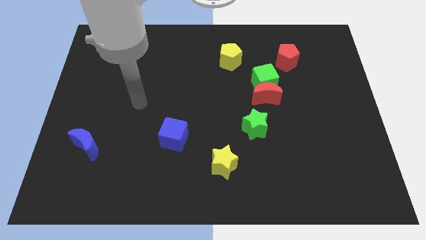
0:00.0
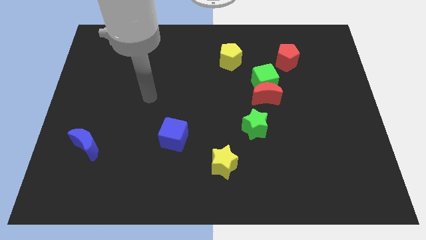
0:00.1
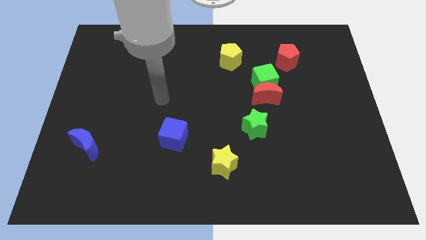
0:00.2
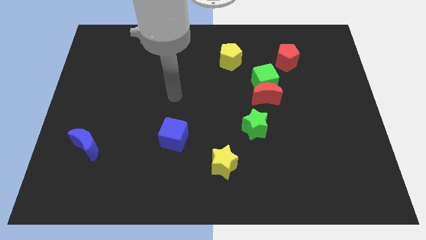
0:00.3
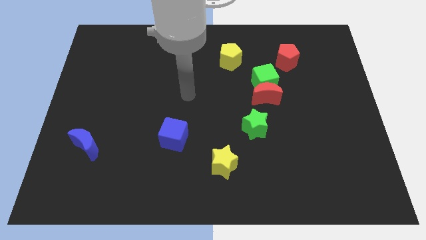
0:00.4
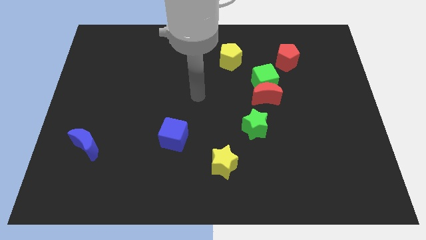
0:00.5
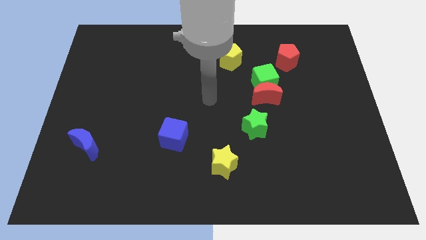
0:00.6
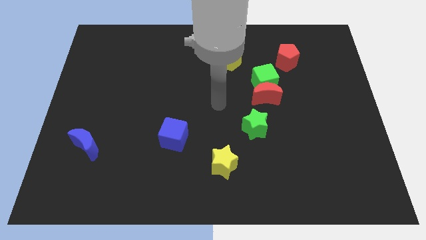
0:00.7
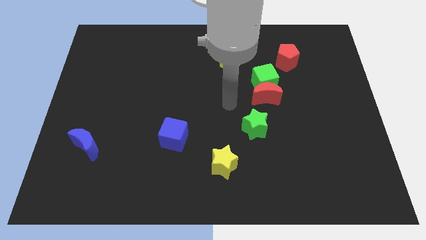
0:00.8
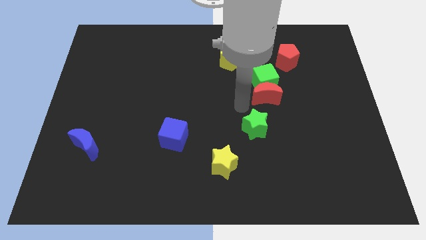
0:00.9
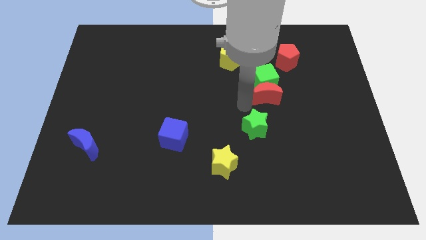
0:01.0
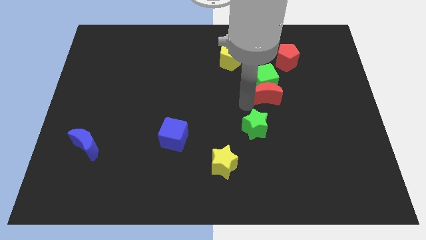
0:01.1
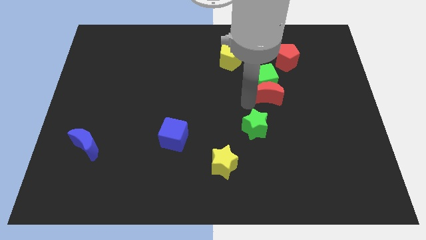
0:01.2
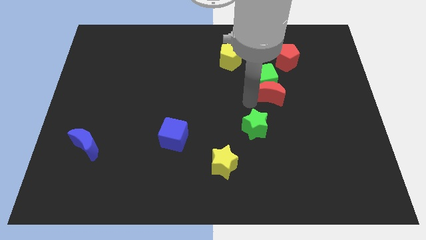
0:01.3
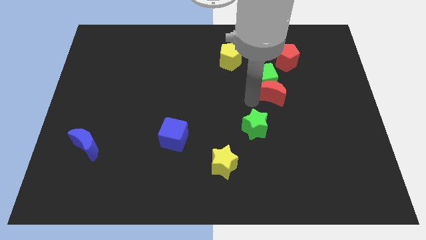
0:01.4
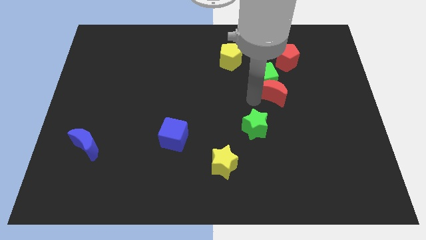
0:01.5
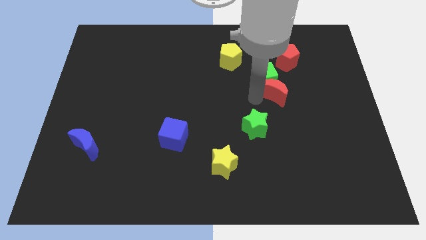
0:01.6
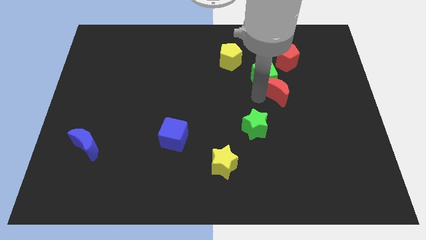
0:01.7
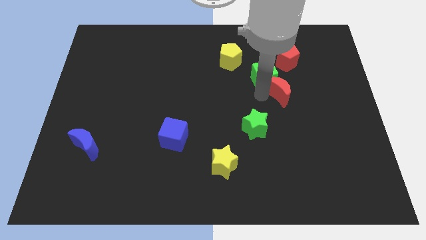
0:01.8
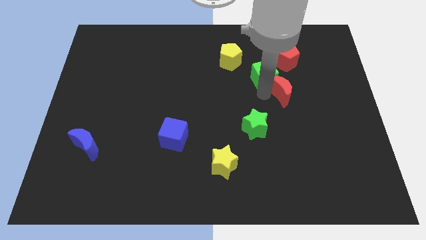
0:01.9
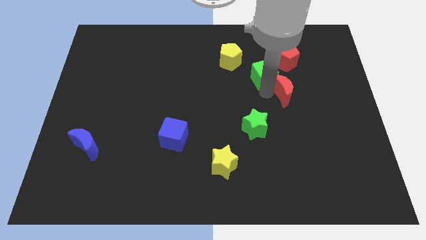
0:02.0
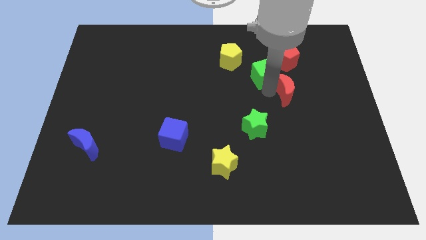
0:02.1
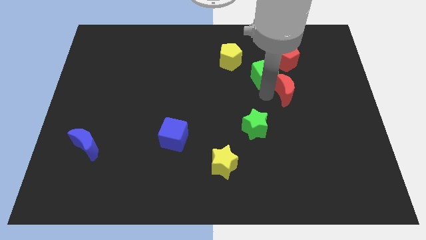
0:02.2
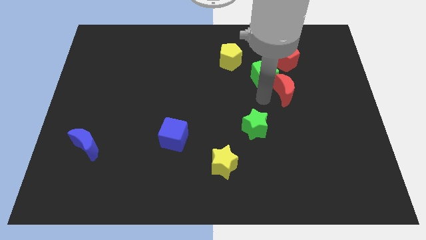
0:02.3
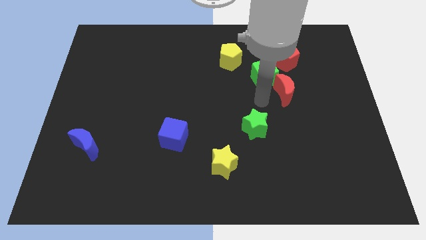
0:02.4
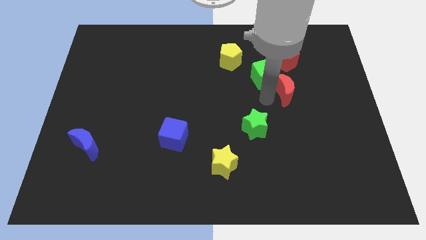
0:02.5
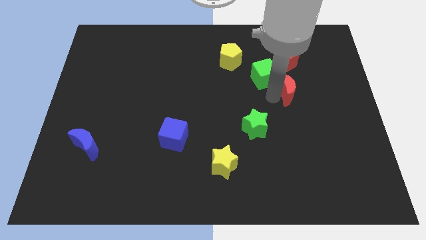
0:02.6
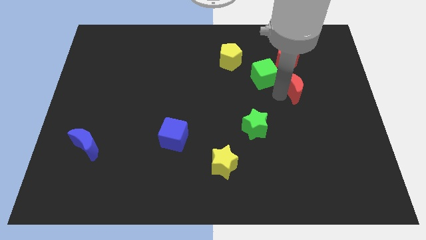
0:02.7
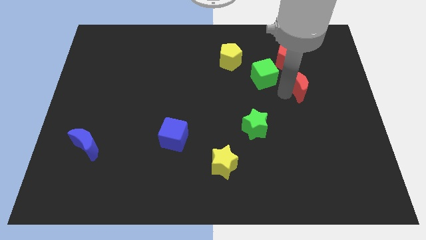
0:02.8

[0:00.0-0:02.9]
separate the red moon from the green cube and green star

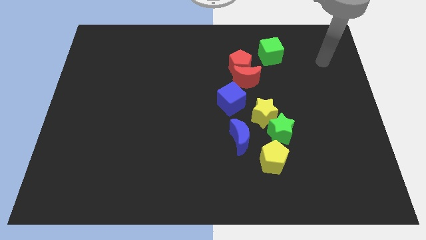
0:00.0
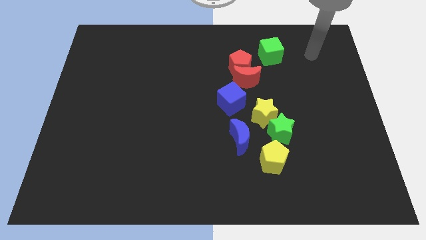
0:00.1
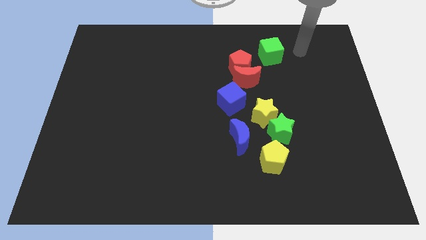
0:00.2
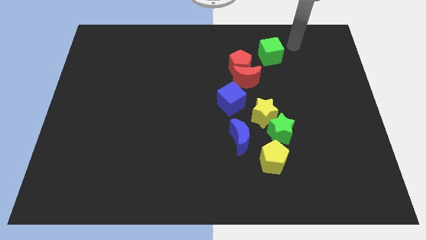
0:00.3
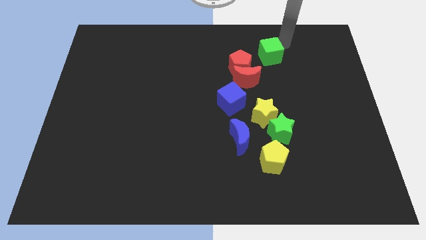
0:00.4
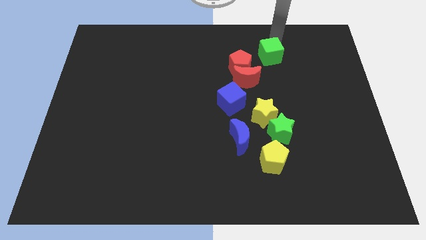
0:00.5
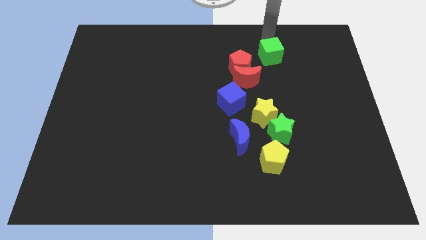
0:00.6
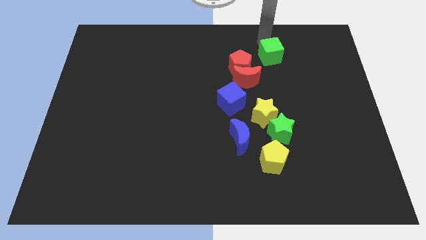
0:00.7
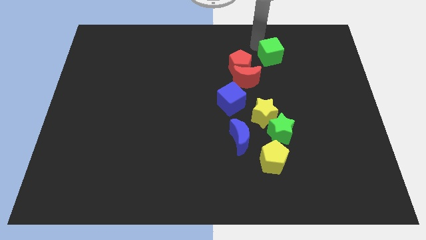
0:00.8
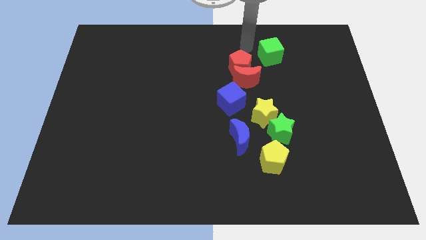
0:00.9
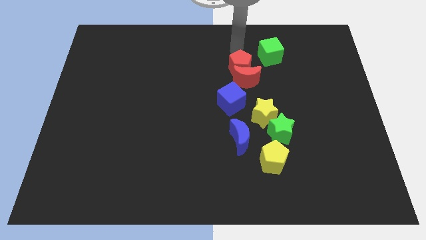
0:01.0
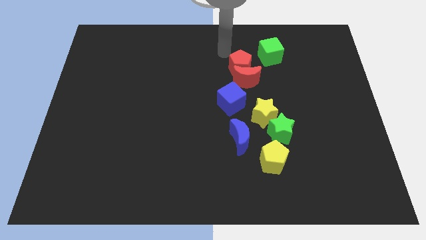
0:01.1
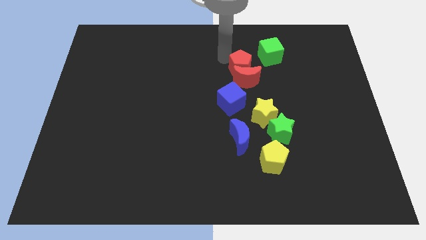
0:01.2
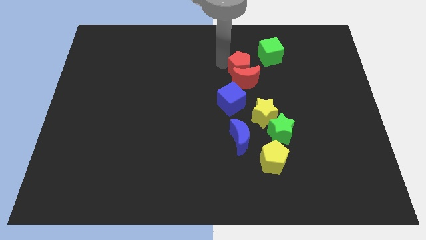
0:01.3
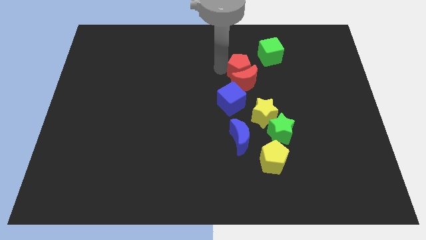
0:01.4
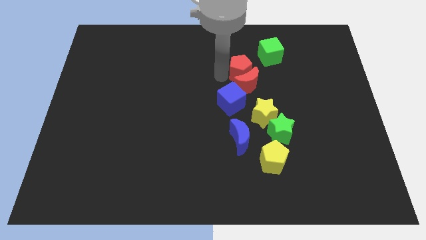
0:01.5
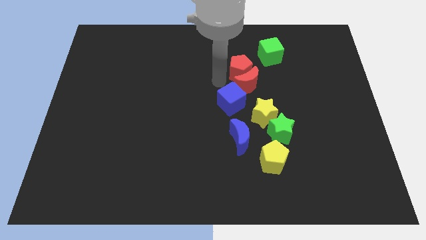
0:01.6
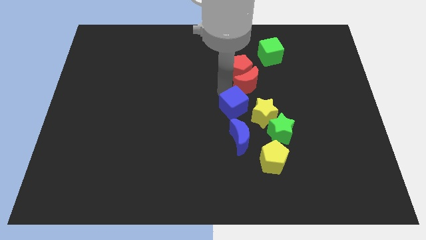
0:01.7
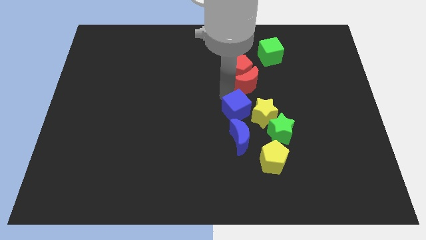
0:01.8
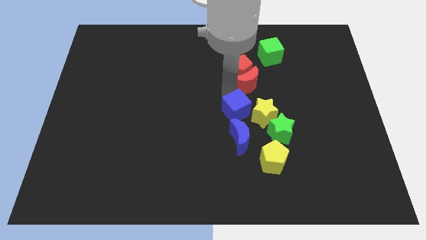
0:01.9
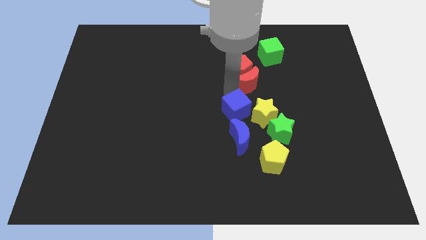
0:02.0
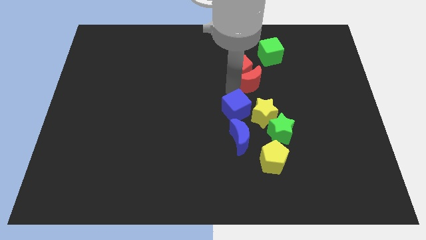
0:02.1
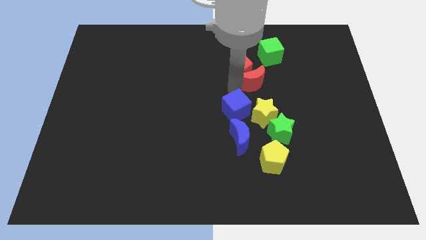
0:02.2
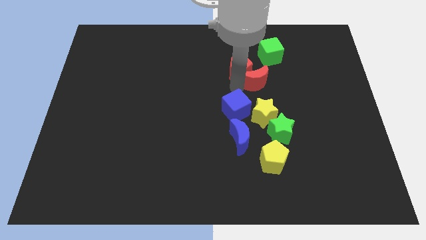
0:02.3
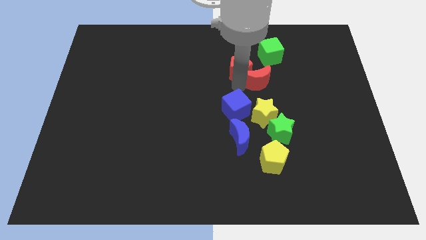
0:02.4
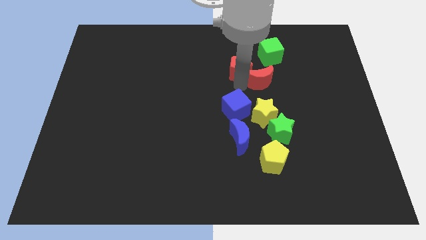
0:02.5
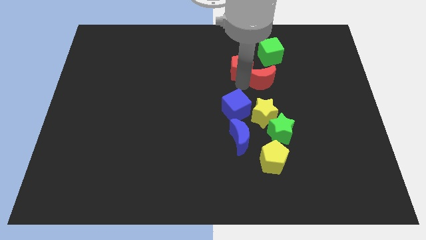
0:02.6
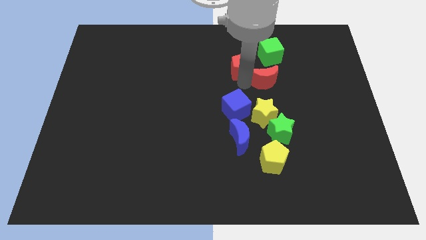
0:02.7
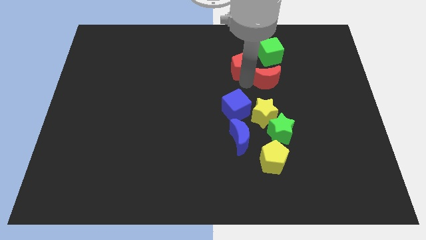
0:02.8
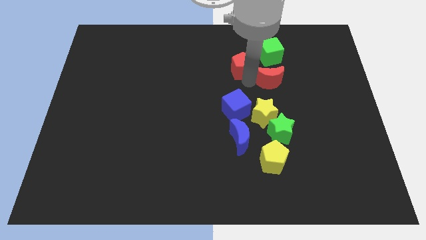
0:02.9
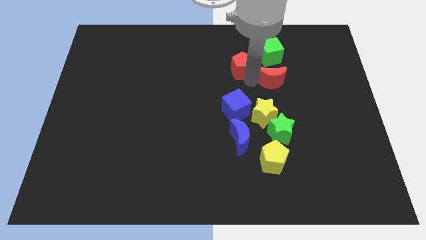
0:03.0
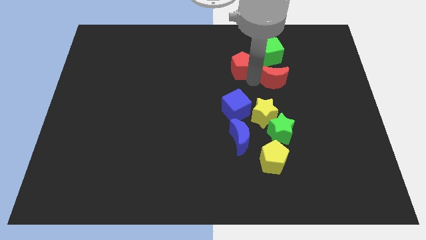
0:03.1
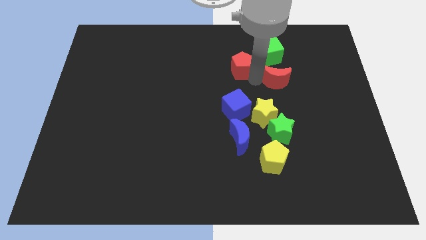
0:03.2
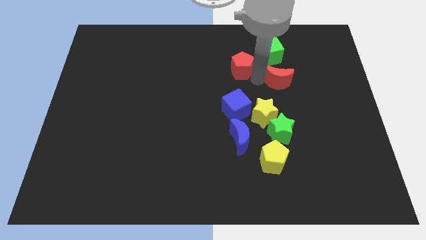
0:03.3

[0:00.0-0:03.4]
move the red moon away from the red pentagon and blue cube

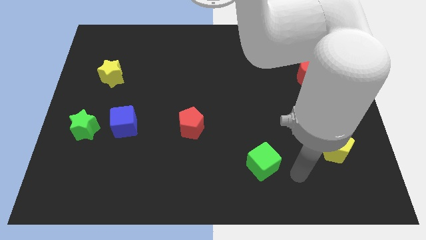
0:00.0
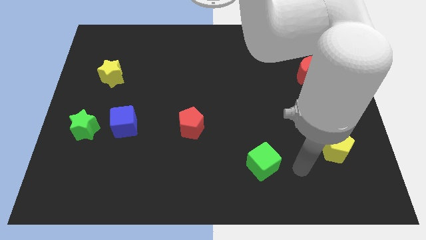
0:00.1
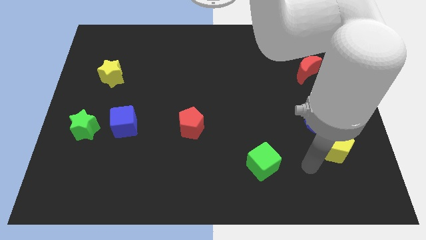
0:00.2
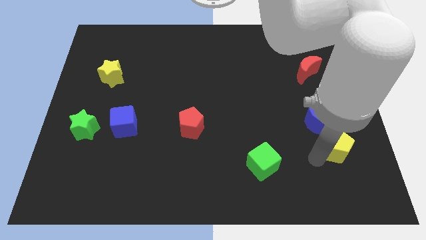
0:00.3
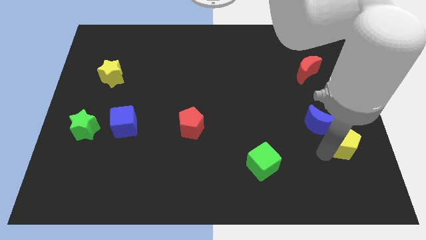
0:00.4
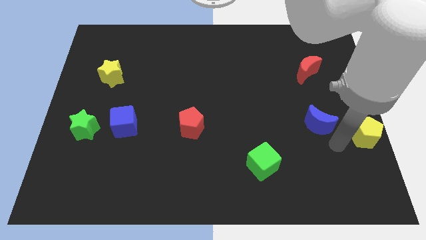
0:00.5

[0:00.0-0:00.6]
pull the blue moon apart from the yellow pentagon

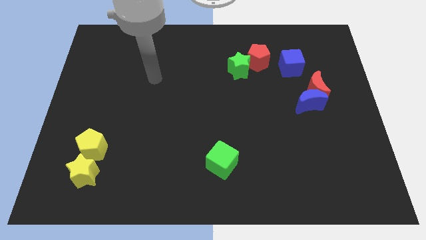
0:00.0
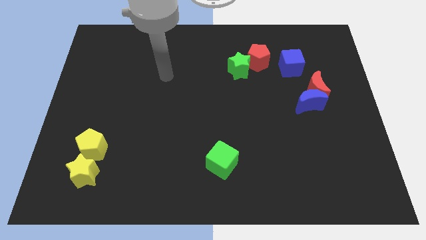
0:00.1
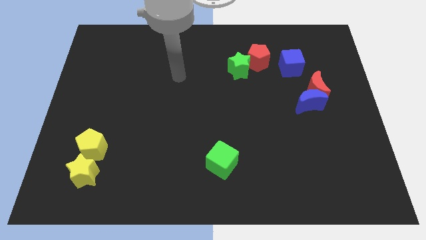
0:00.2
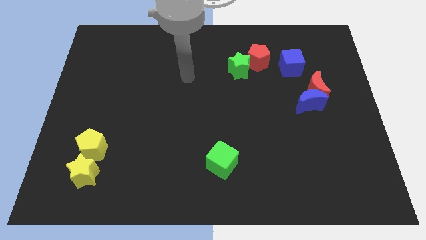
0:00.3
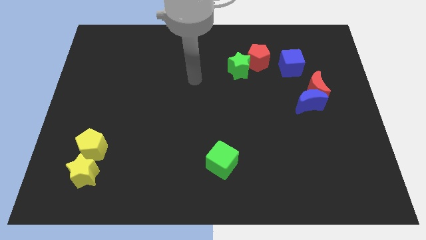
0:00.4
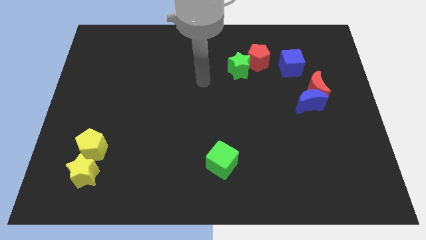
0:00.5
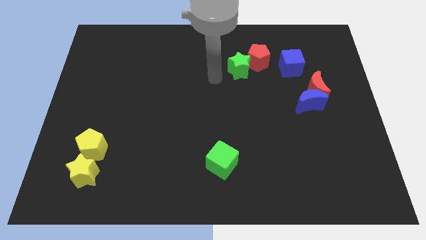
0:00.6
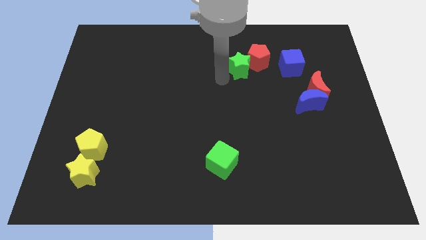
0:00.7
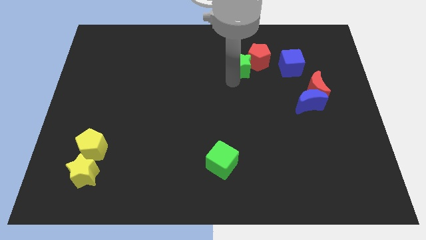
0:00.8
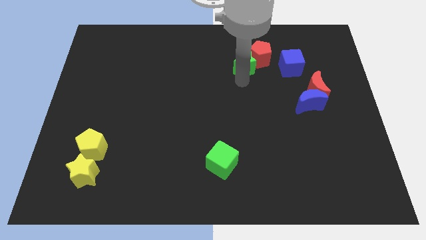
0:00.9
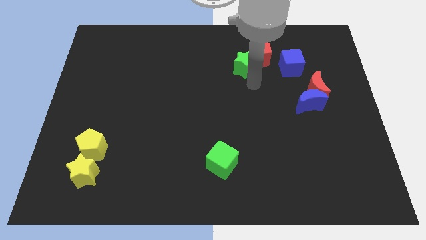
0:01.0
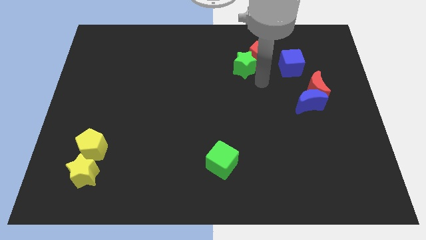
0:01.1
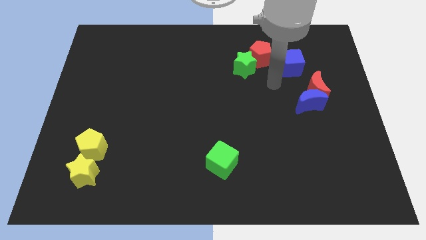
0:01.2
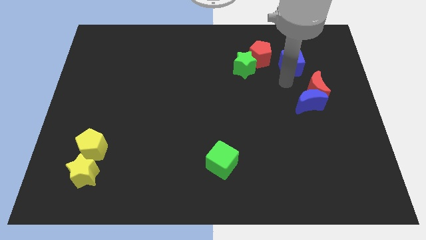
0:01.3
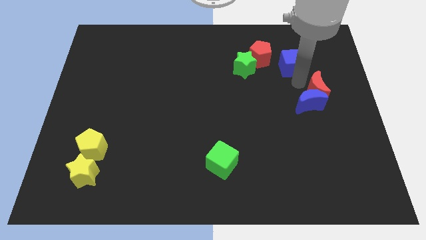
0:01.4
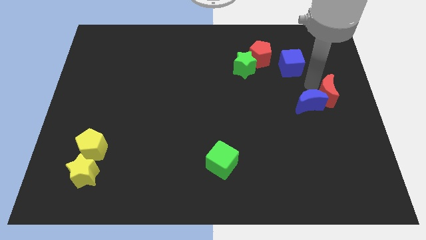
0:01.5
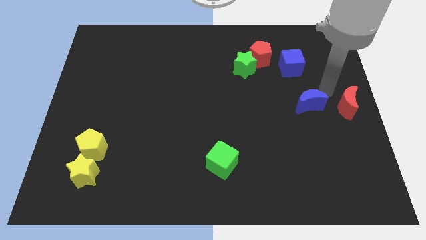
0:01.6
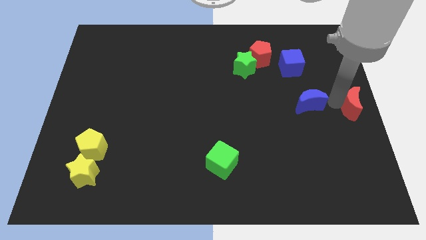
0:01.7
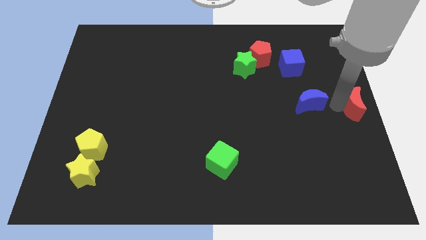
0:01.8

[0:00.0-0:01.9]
separate the blue moon from the red moon

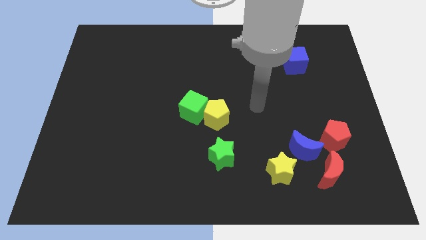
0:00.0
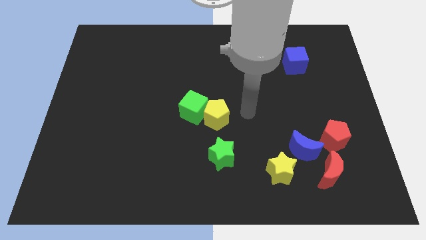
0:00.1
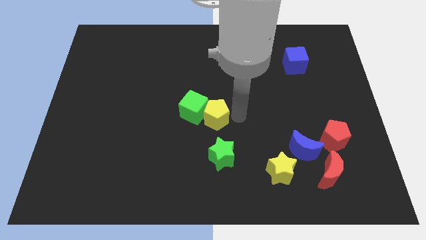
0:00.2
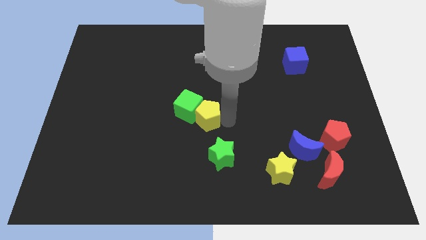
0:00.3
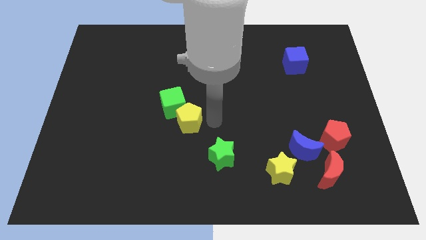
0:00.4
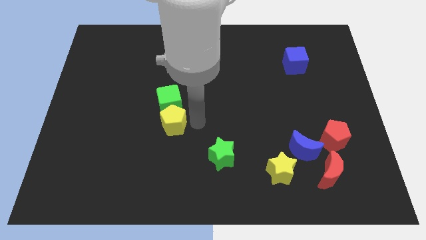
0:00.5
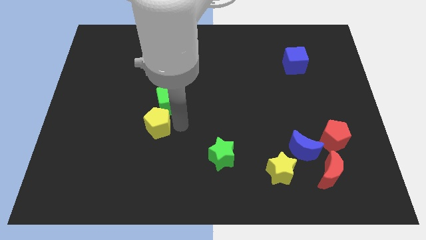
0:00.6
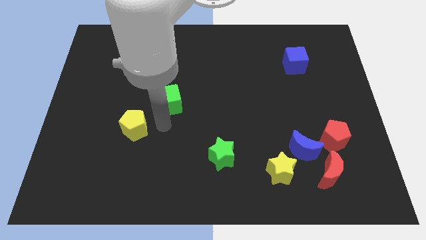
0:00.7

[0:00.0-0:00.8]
separate the green cube from the yellow pentagon
